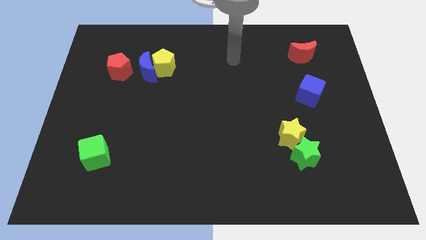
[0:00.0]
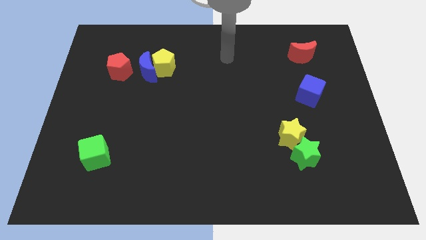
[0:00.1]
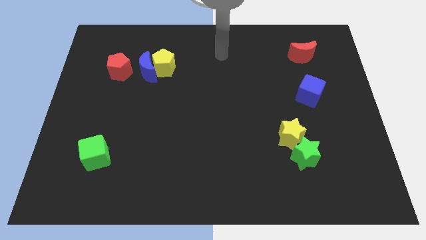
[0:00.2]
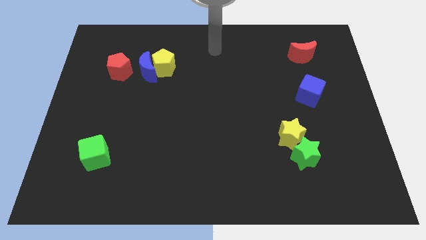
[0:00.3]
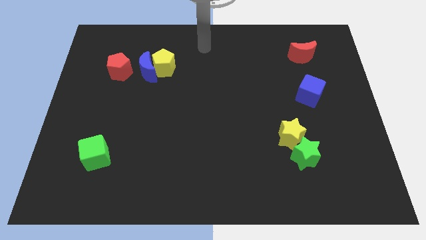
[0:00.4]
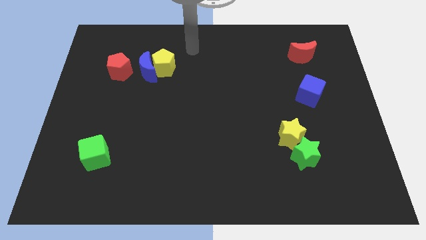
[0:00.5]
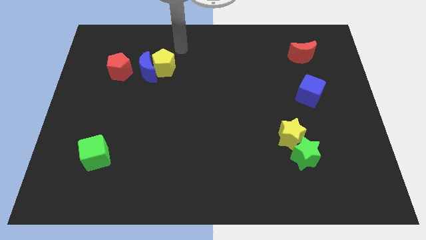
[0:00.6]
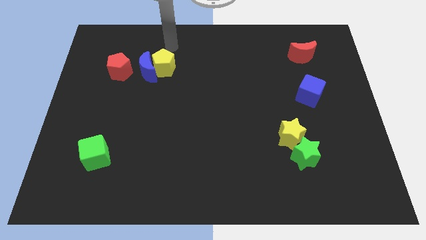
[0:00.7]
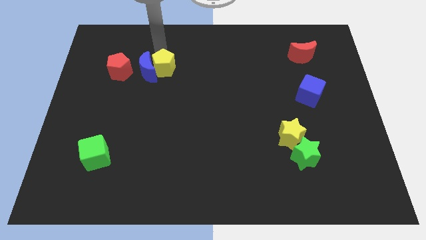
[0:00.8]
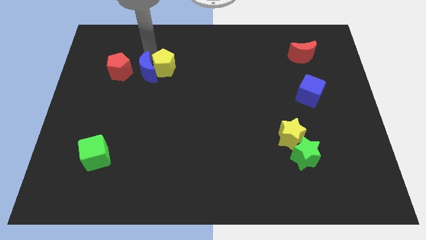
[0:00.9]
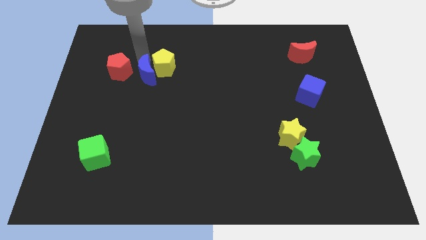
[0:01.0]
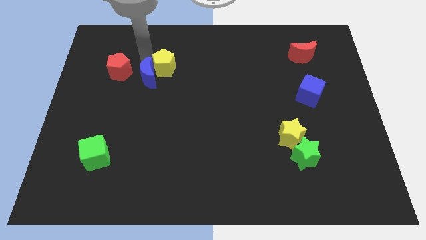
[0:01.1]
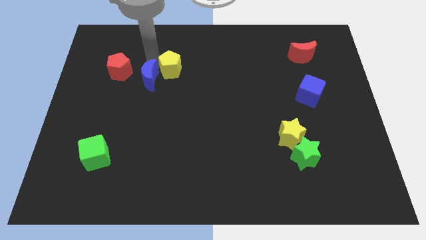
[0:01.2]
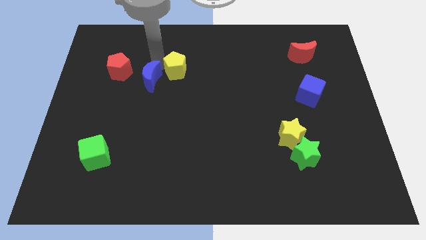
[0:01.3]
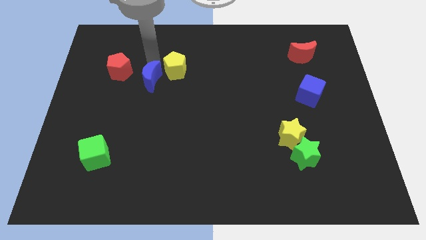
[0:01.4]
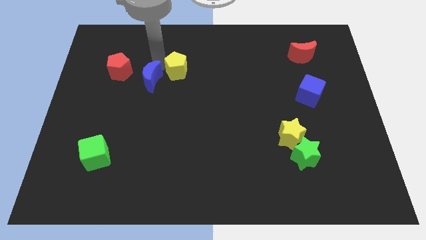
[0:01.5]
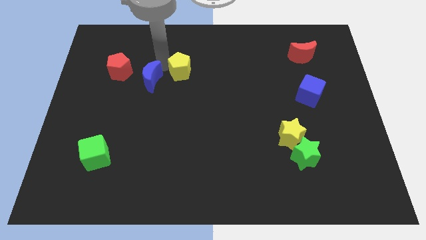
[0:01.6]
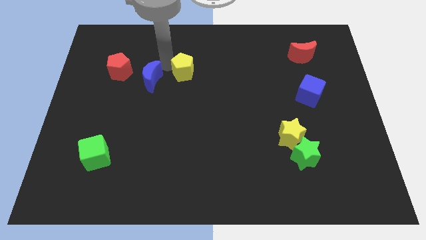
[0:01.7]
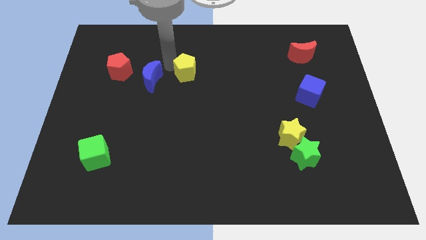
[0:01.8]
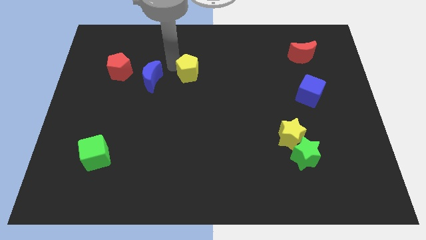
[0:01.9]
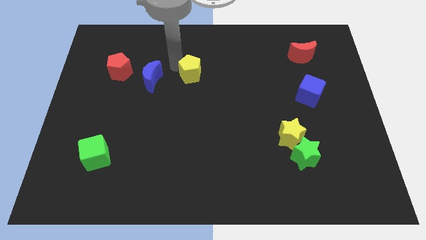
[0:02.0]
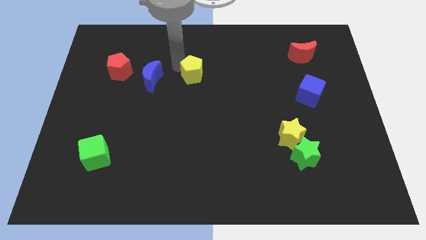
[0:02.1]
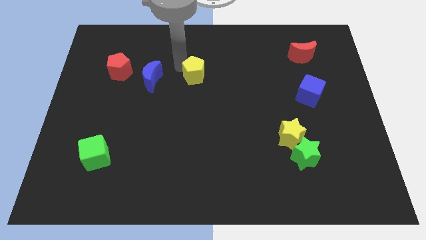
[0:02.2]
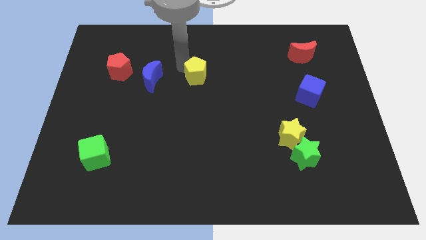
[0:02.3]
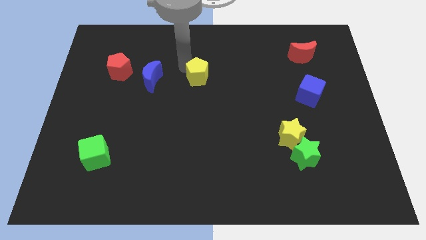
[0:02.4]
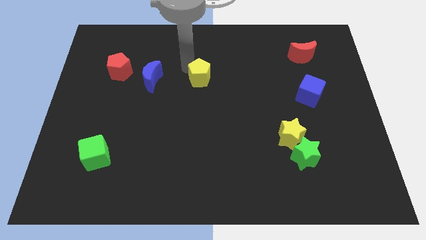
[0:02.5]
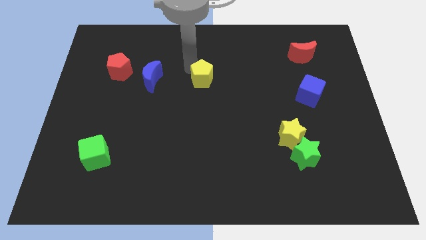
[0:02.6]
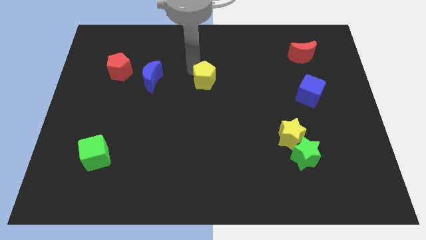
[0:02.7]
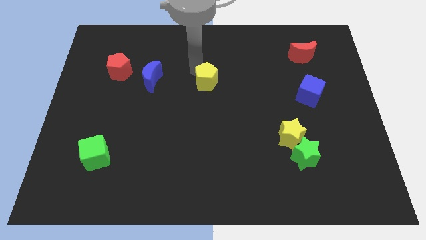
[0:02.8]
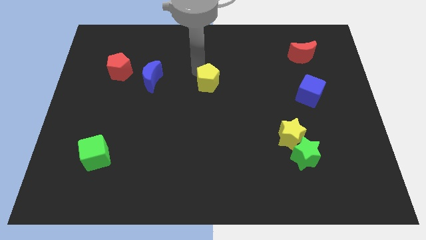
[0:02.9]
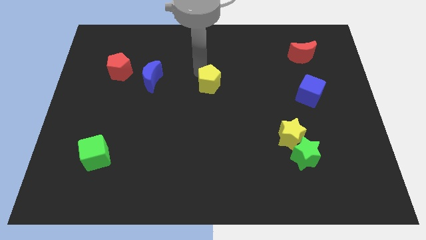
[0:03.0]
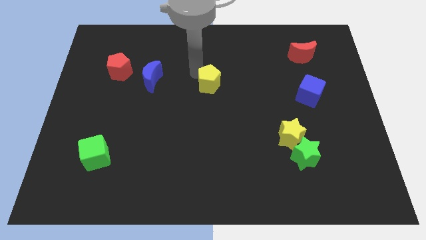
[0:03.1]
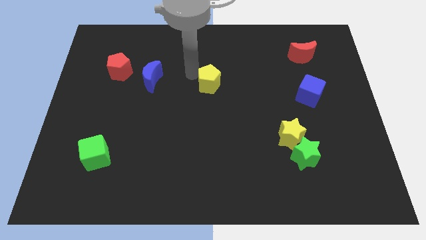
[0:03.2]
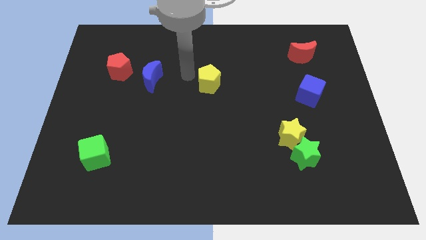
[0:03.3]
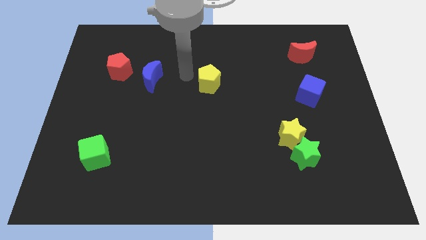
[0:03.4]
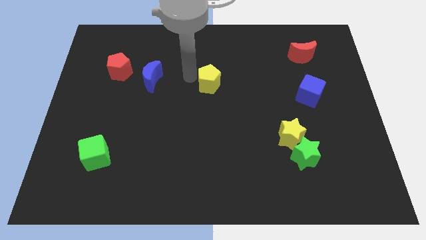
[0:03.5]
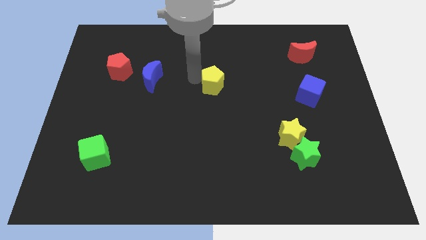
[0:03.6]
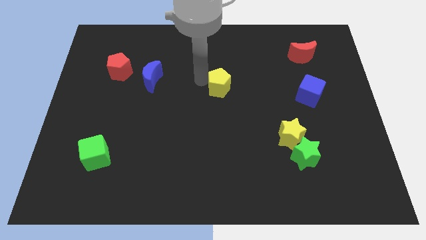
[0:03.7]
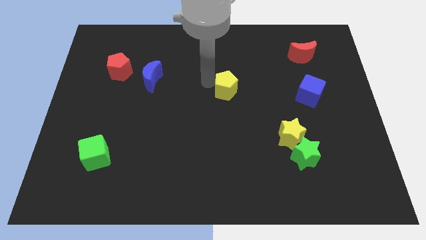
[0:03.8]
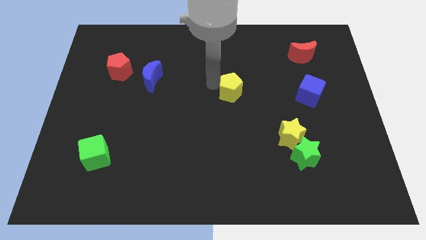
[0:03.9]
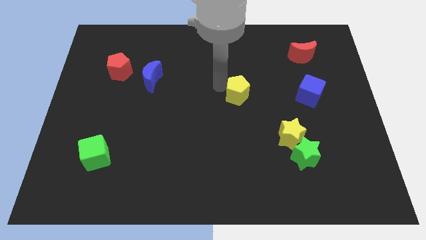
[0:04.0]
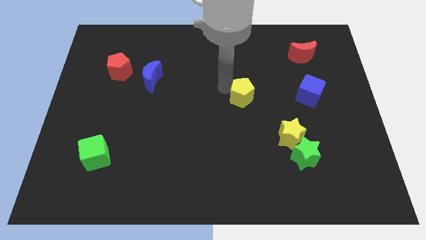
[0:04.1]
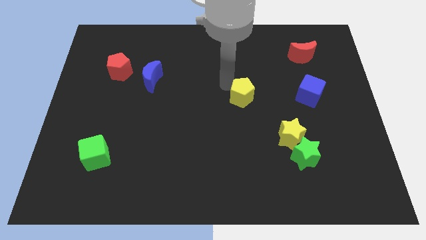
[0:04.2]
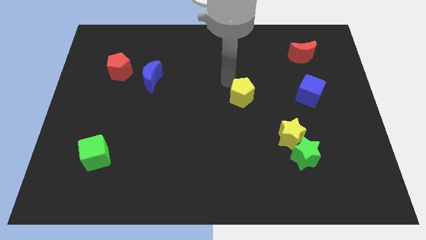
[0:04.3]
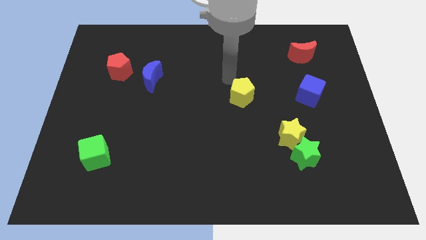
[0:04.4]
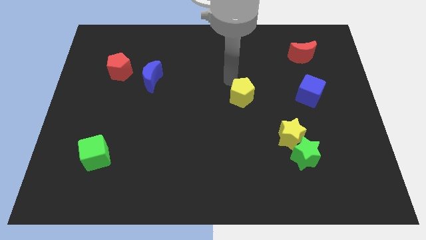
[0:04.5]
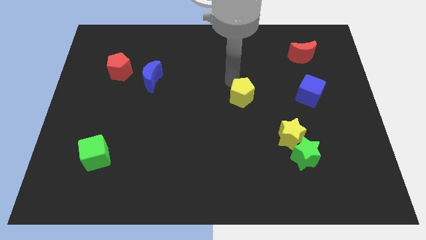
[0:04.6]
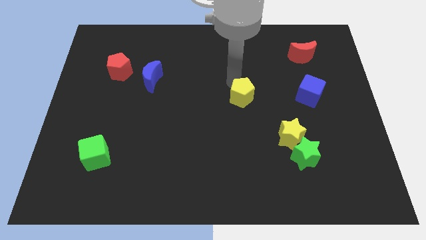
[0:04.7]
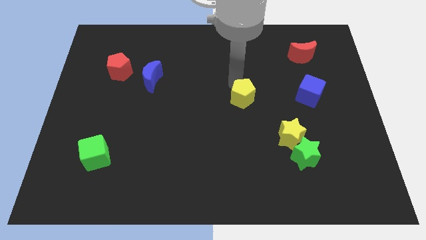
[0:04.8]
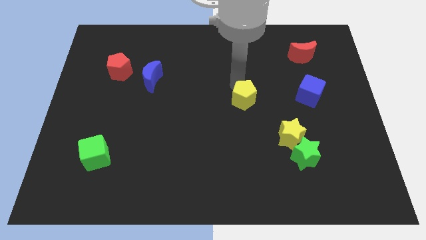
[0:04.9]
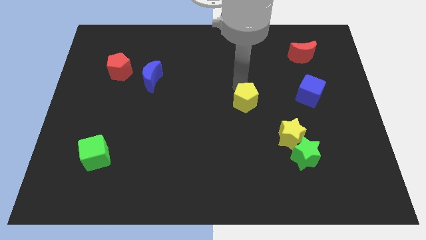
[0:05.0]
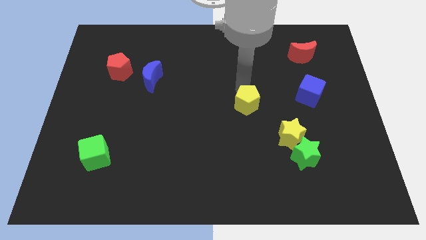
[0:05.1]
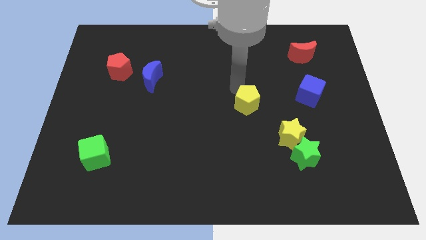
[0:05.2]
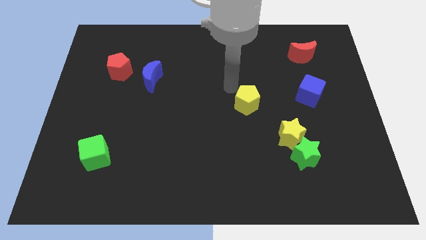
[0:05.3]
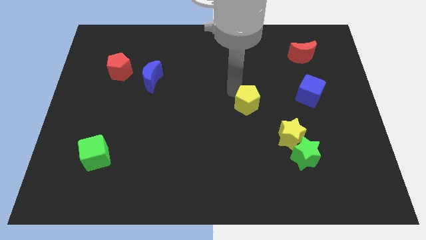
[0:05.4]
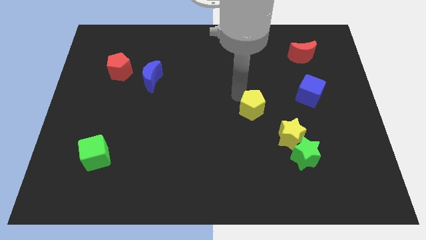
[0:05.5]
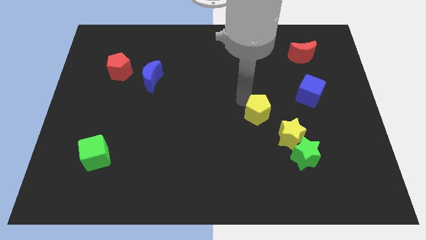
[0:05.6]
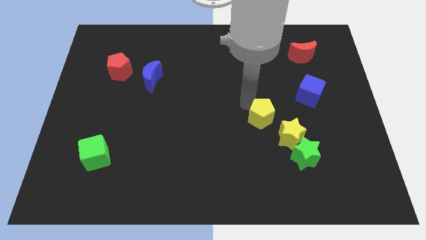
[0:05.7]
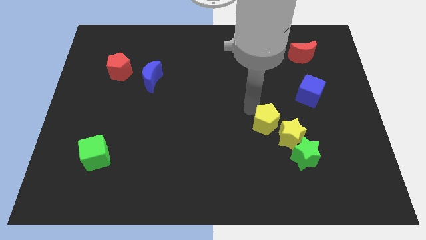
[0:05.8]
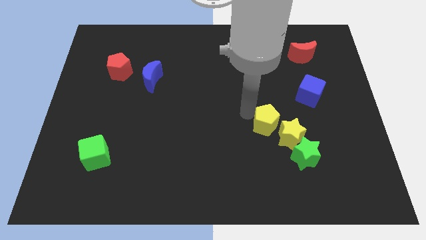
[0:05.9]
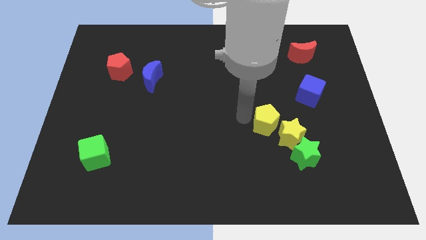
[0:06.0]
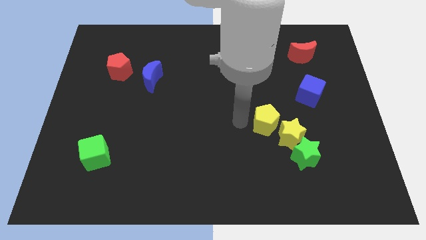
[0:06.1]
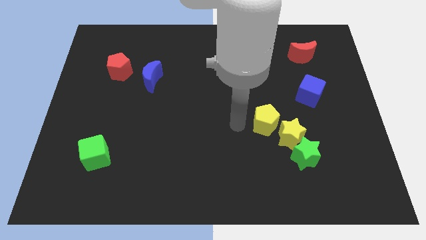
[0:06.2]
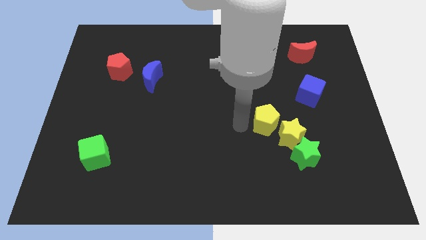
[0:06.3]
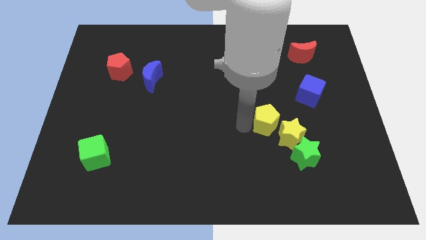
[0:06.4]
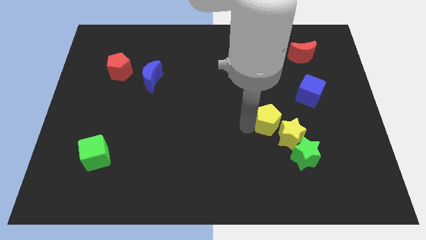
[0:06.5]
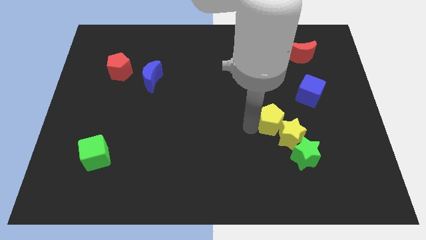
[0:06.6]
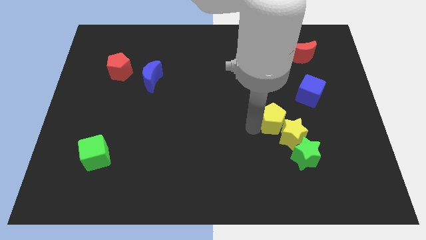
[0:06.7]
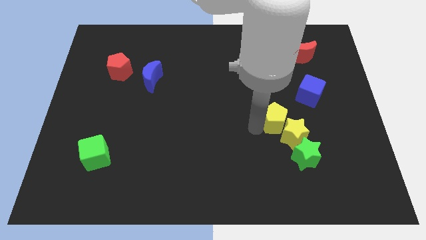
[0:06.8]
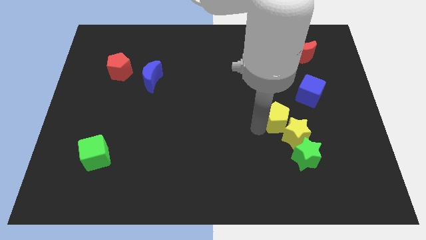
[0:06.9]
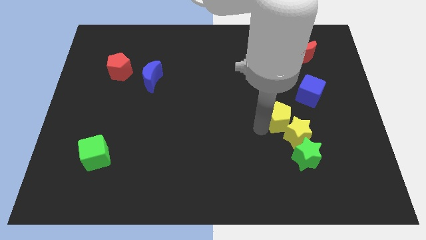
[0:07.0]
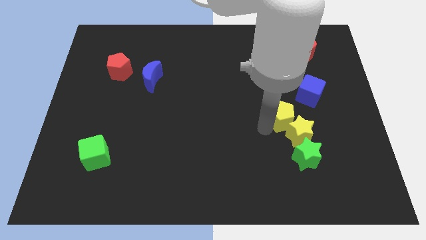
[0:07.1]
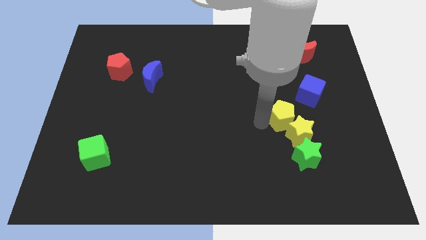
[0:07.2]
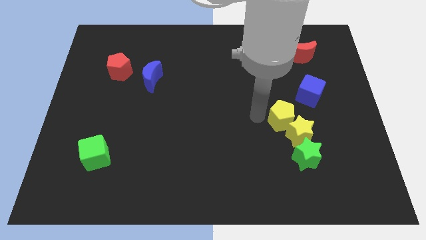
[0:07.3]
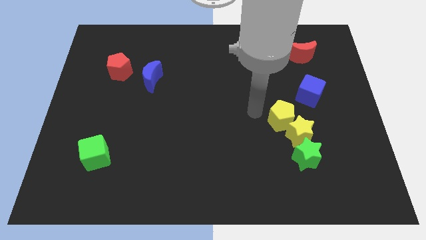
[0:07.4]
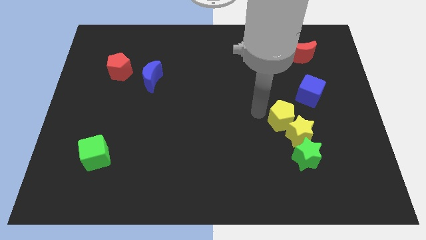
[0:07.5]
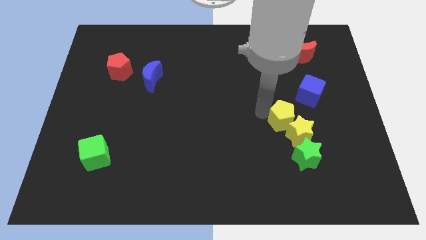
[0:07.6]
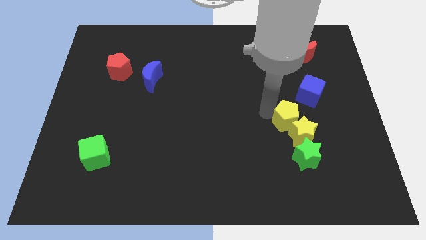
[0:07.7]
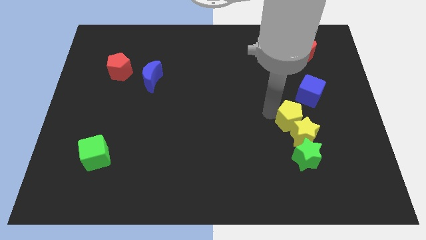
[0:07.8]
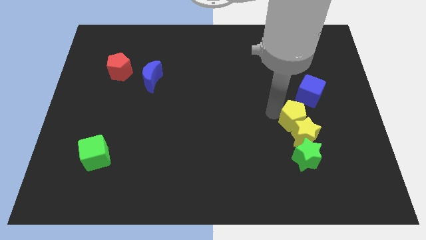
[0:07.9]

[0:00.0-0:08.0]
put the yellow pentagon below the blue cube

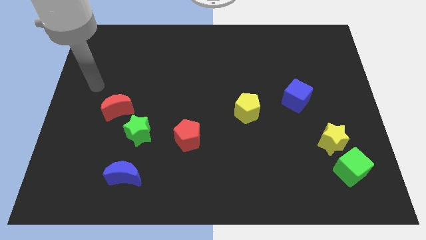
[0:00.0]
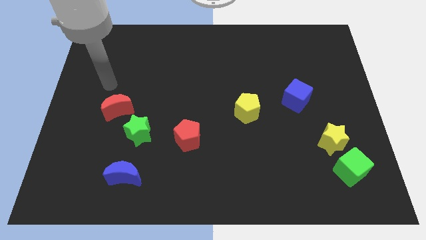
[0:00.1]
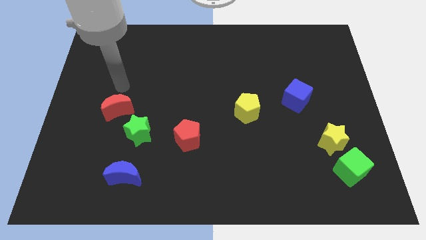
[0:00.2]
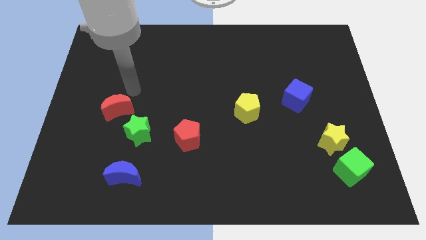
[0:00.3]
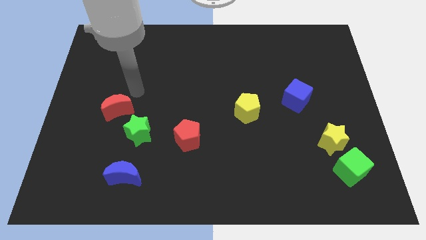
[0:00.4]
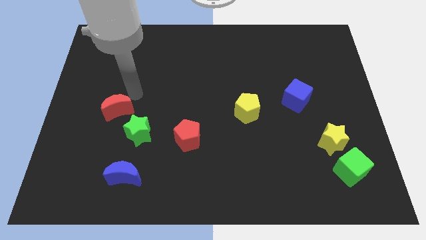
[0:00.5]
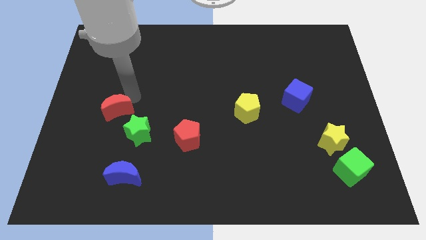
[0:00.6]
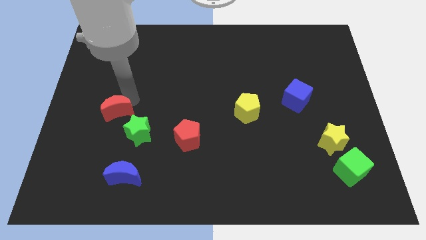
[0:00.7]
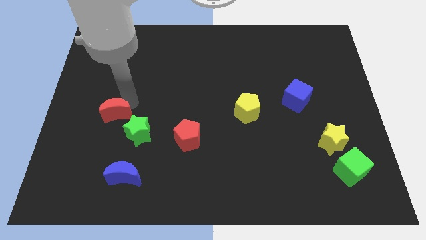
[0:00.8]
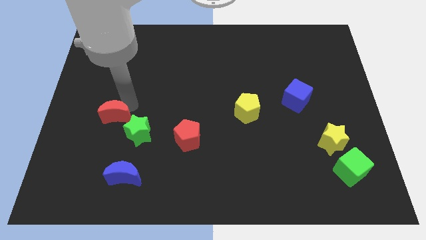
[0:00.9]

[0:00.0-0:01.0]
slide the red moon to the left side of the green star
